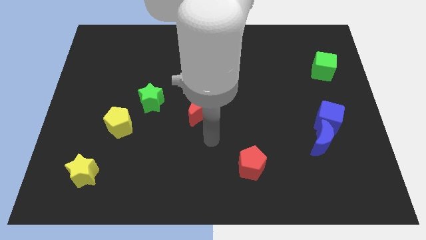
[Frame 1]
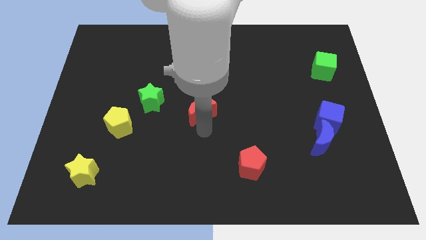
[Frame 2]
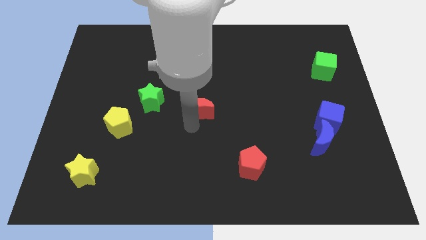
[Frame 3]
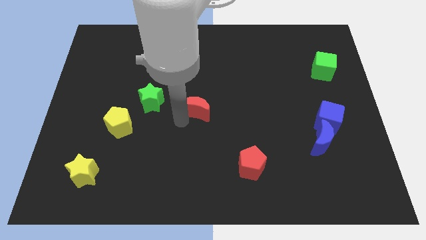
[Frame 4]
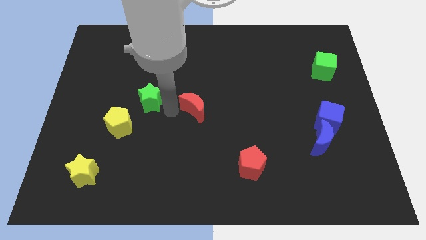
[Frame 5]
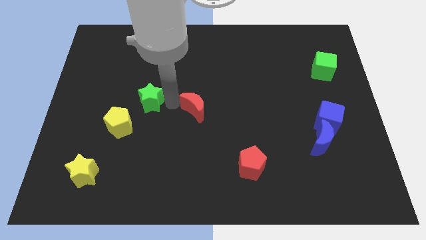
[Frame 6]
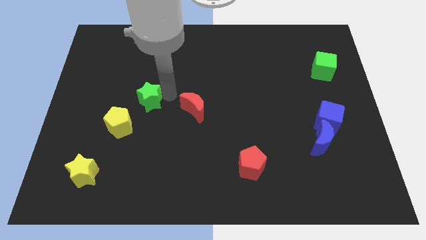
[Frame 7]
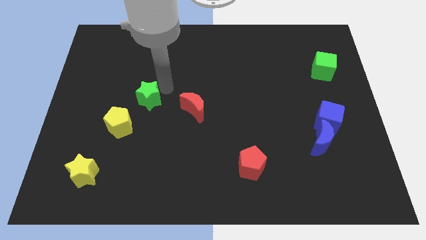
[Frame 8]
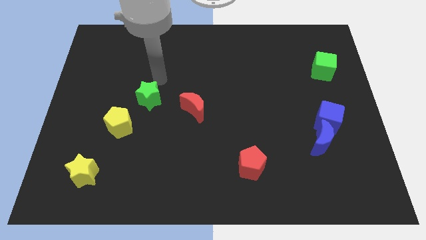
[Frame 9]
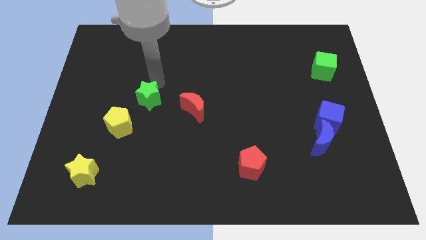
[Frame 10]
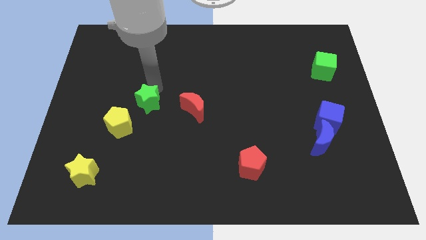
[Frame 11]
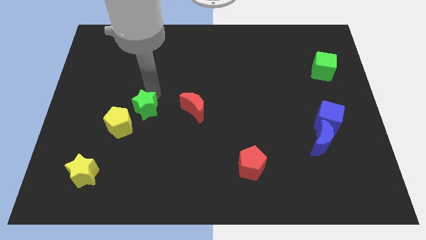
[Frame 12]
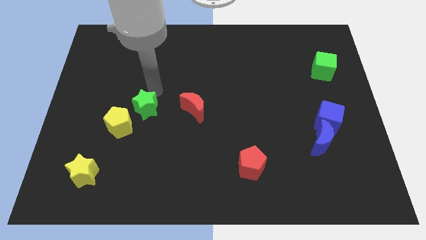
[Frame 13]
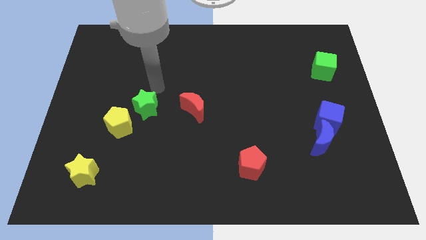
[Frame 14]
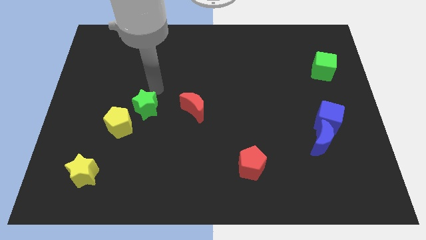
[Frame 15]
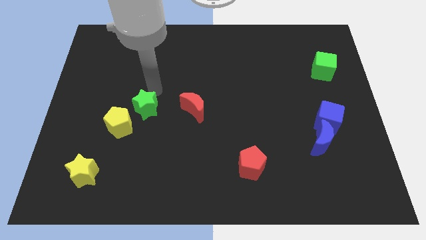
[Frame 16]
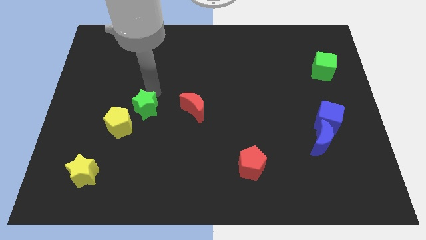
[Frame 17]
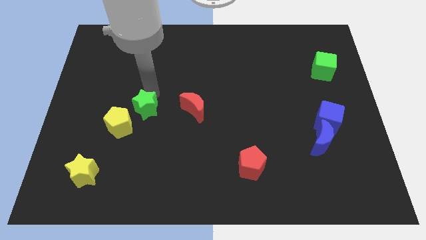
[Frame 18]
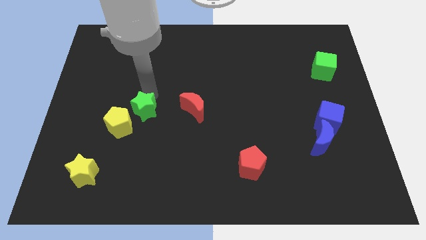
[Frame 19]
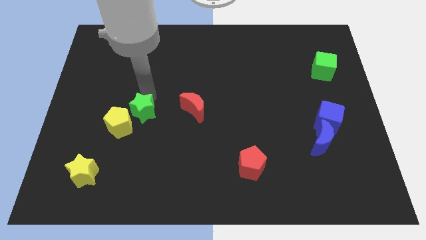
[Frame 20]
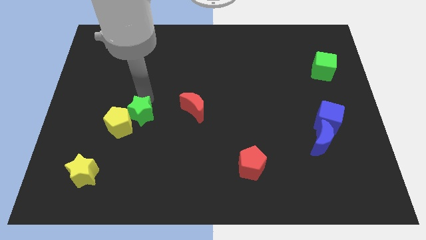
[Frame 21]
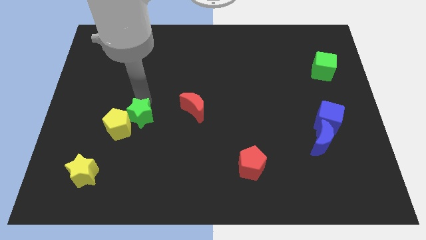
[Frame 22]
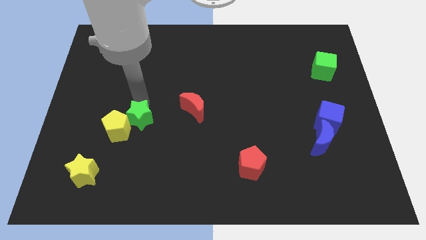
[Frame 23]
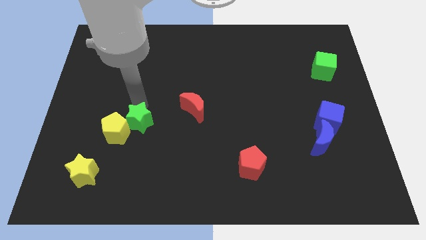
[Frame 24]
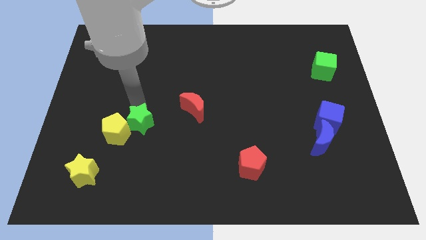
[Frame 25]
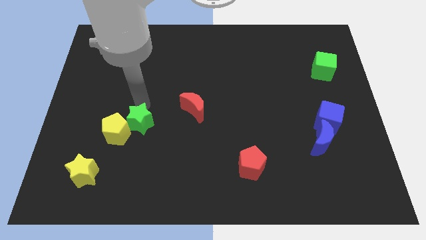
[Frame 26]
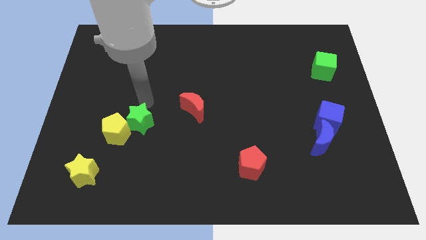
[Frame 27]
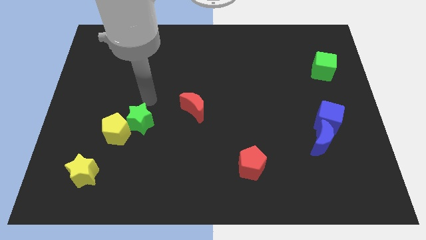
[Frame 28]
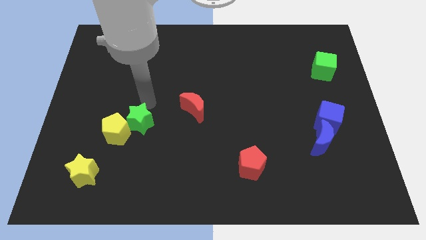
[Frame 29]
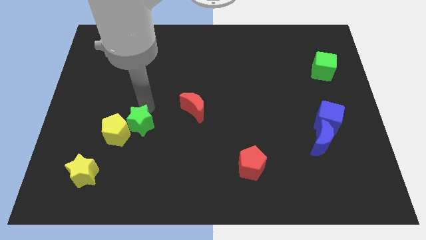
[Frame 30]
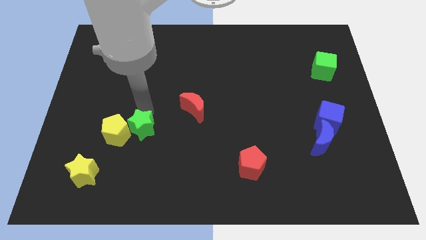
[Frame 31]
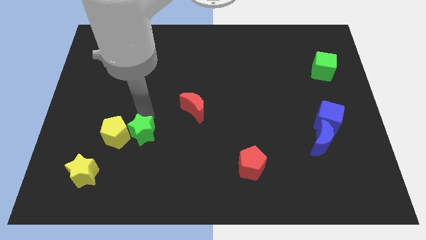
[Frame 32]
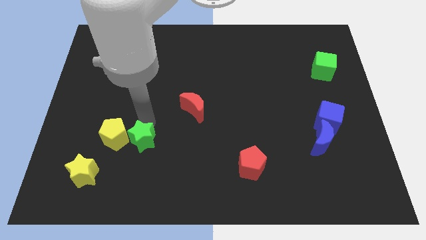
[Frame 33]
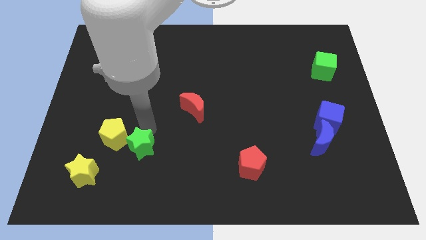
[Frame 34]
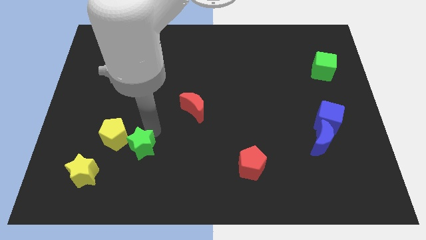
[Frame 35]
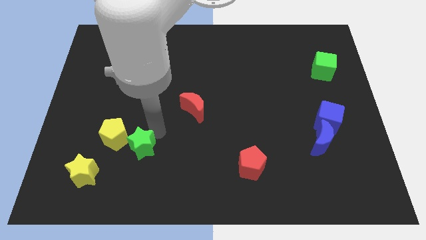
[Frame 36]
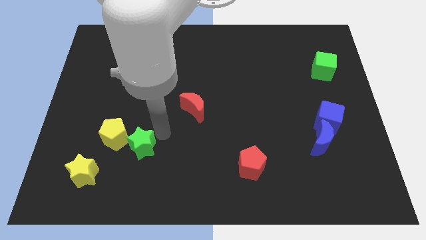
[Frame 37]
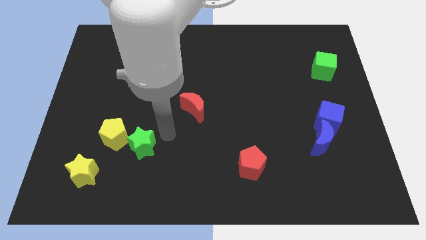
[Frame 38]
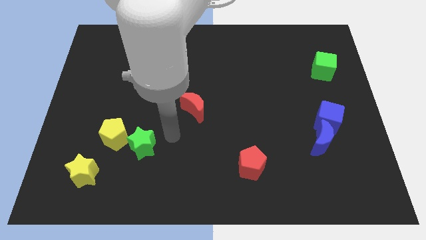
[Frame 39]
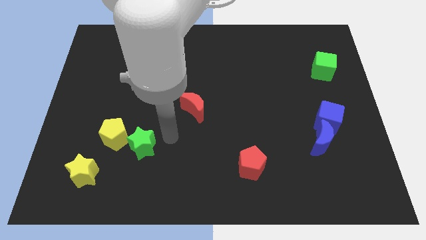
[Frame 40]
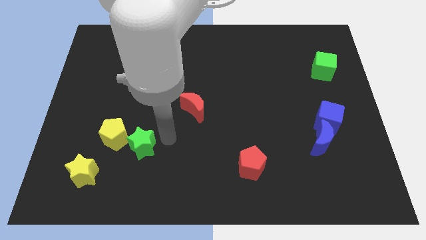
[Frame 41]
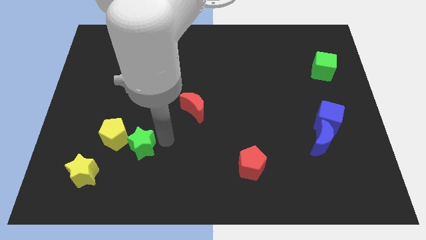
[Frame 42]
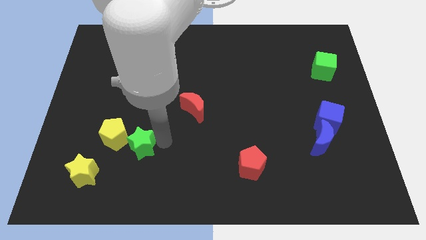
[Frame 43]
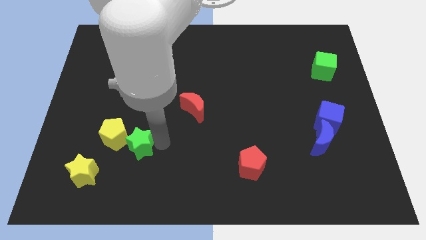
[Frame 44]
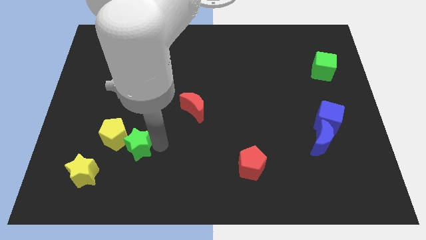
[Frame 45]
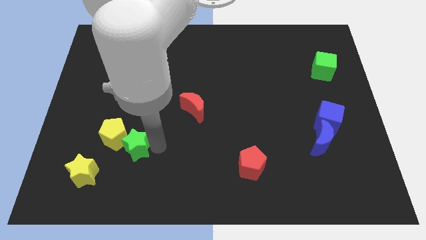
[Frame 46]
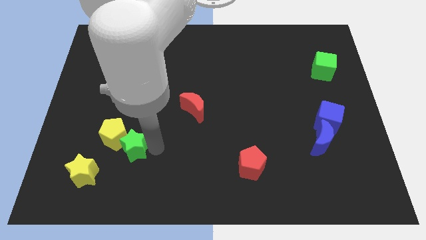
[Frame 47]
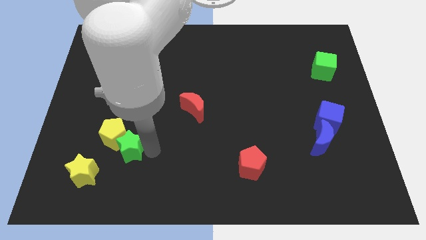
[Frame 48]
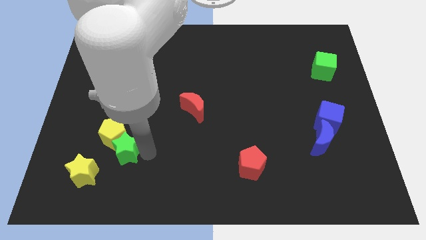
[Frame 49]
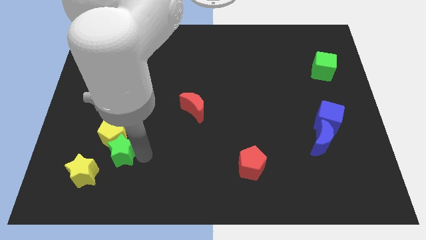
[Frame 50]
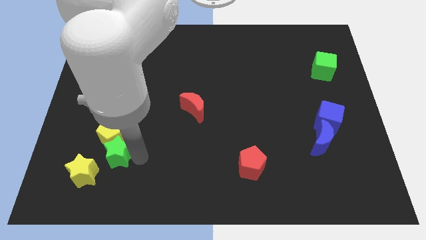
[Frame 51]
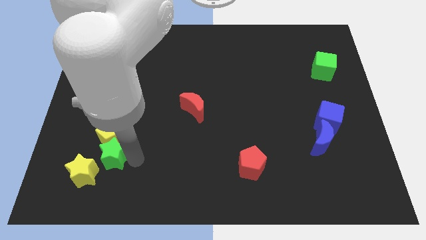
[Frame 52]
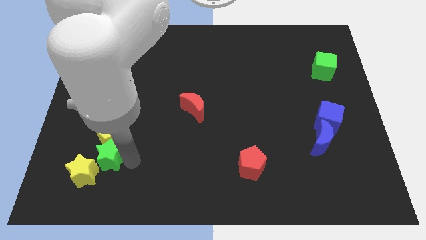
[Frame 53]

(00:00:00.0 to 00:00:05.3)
push the green star to the yellow star

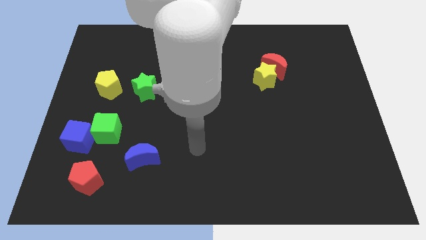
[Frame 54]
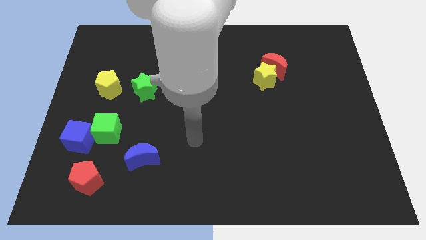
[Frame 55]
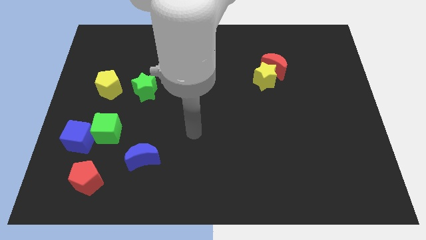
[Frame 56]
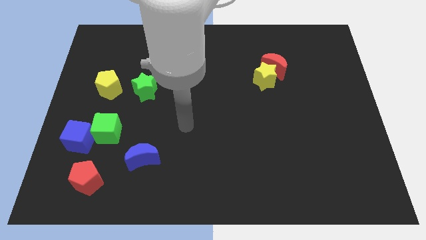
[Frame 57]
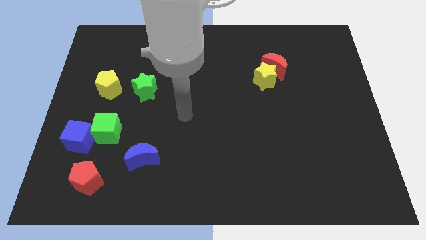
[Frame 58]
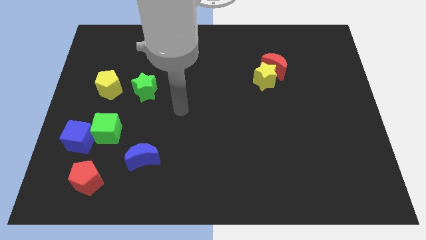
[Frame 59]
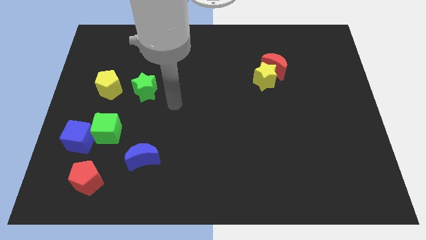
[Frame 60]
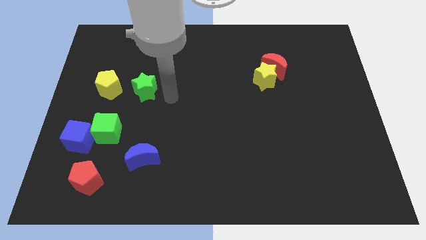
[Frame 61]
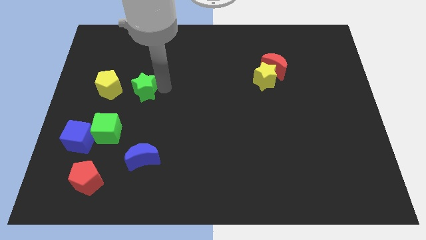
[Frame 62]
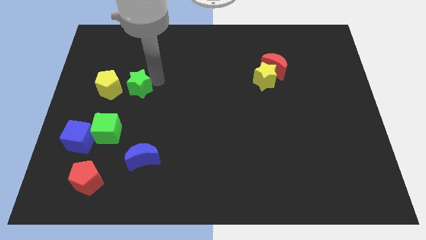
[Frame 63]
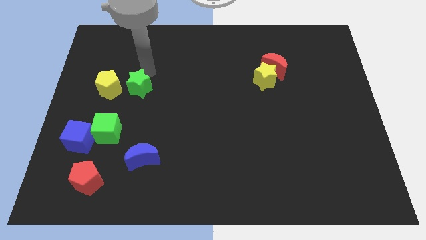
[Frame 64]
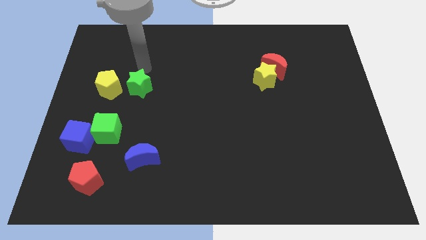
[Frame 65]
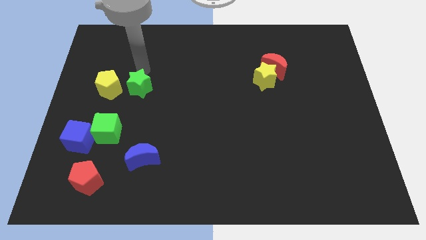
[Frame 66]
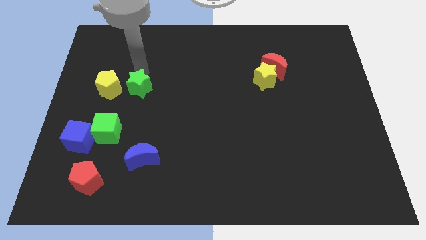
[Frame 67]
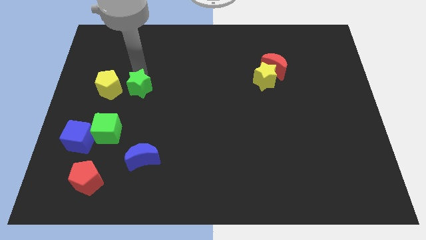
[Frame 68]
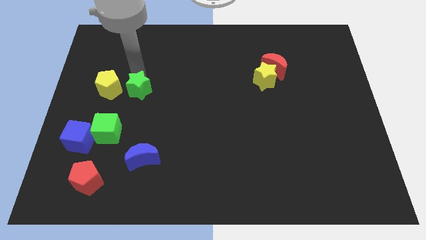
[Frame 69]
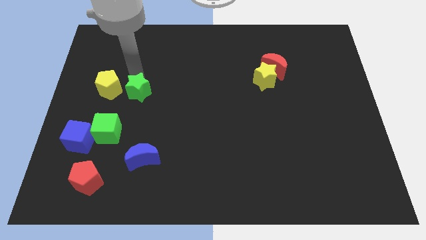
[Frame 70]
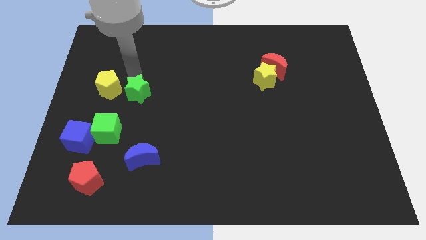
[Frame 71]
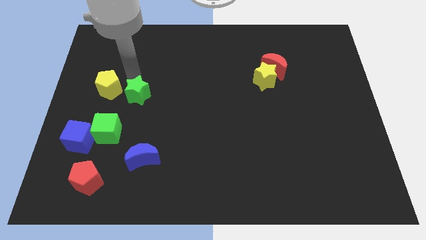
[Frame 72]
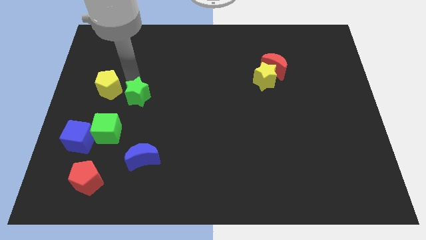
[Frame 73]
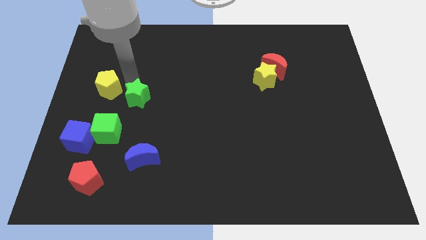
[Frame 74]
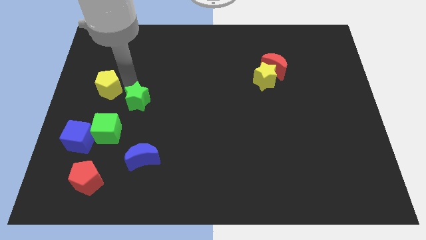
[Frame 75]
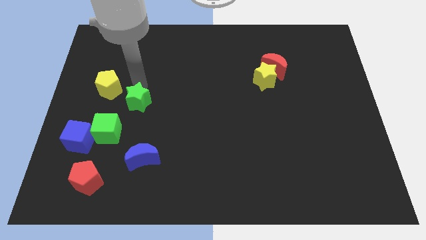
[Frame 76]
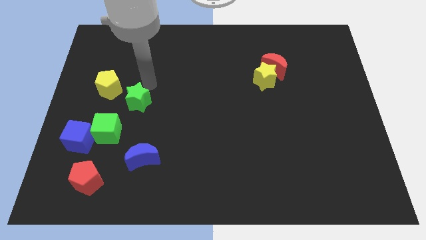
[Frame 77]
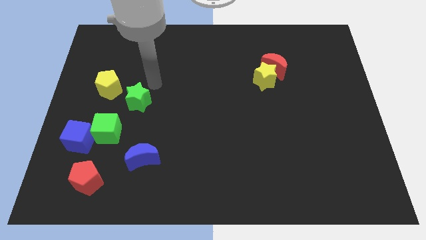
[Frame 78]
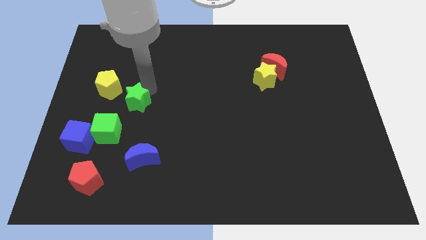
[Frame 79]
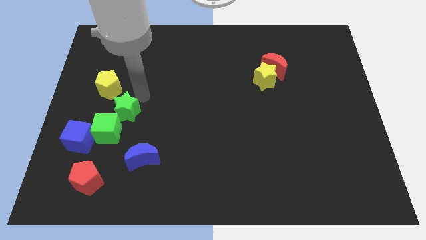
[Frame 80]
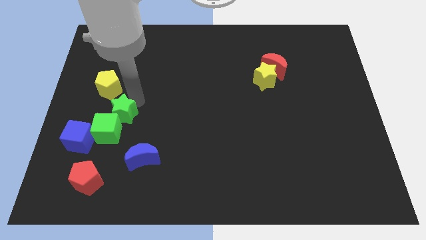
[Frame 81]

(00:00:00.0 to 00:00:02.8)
slide the green star towards the green cube

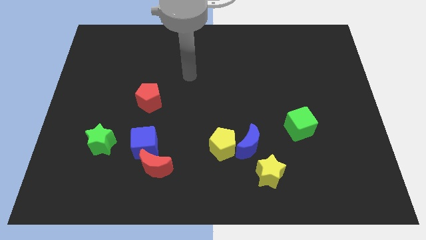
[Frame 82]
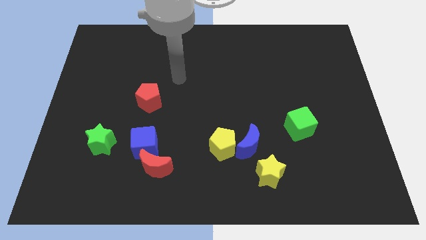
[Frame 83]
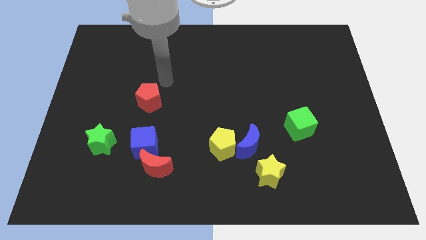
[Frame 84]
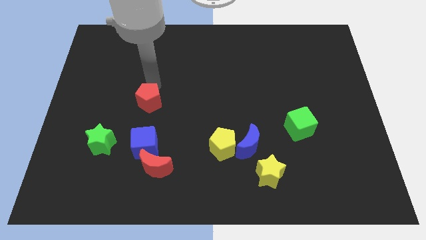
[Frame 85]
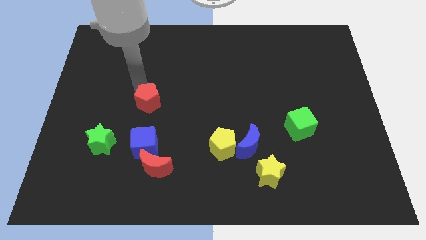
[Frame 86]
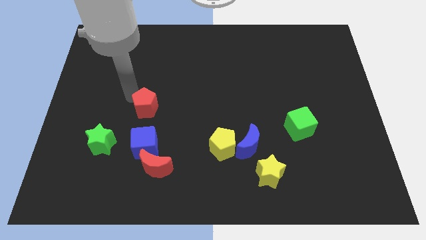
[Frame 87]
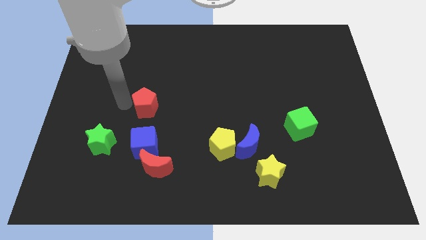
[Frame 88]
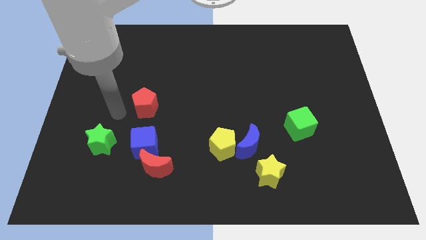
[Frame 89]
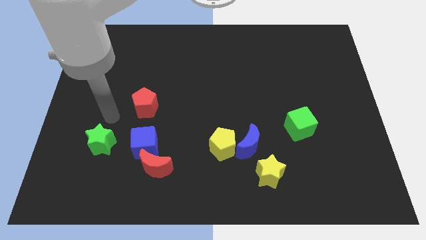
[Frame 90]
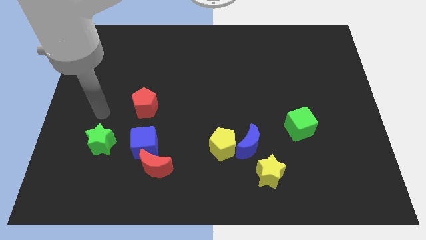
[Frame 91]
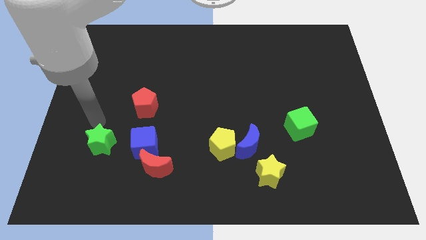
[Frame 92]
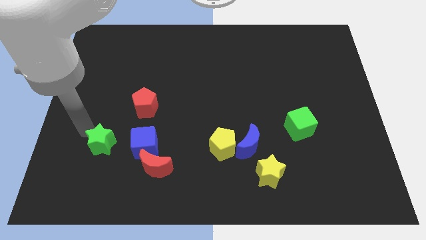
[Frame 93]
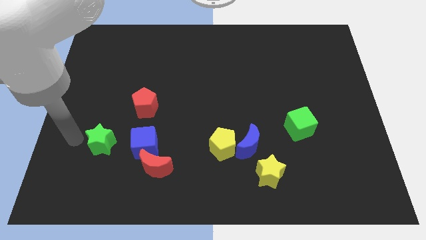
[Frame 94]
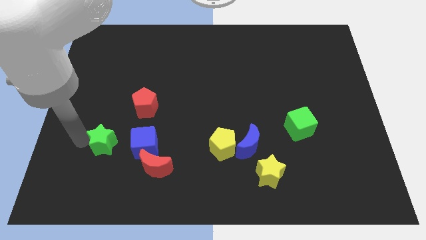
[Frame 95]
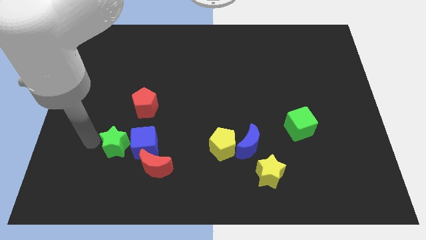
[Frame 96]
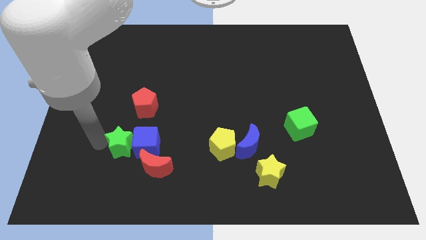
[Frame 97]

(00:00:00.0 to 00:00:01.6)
push the green star next to the blue cube
